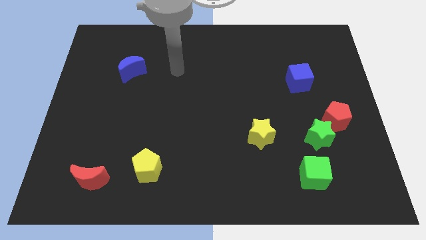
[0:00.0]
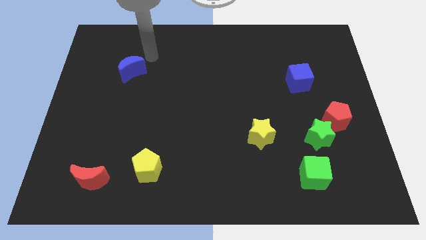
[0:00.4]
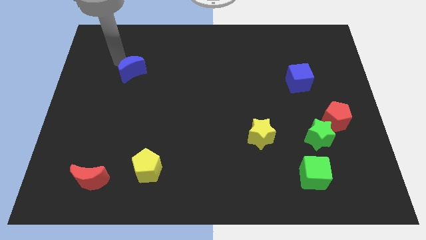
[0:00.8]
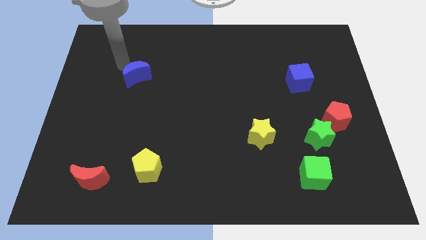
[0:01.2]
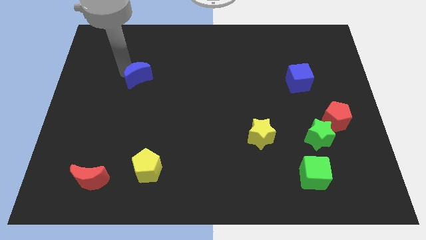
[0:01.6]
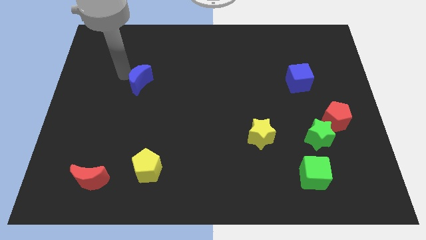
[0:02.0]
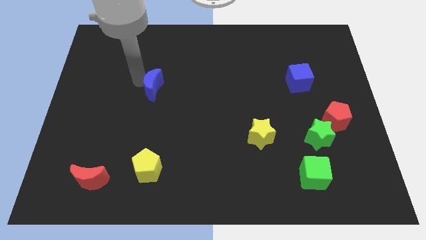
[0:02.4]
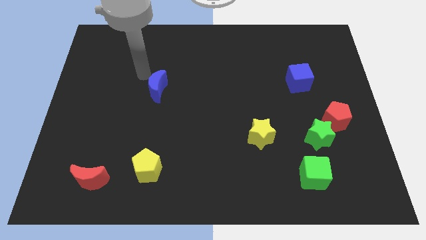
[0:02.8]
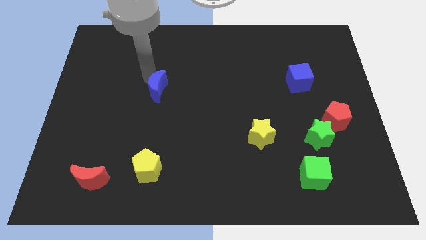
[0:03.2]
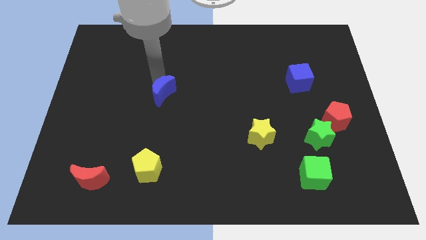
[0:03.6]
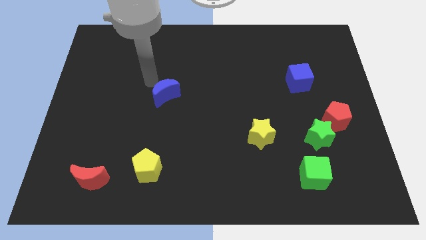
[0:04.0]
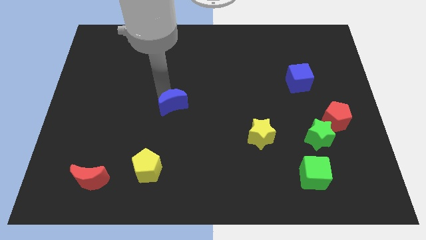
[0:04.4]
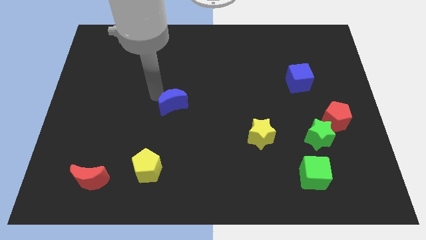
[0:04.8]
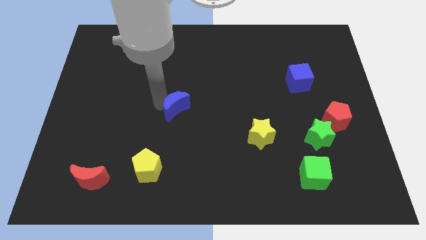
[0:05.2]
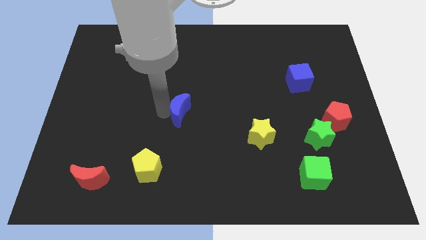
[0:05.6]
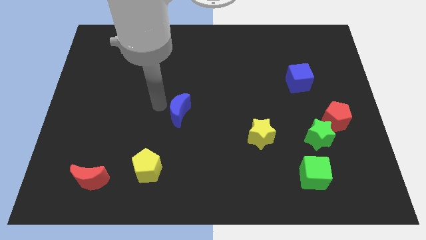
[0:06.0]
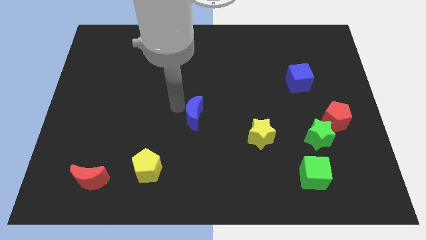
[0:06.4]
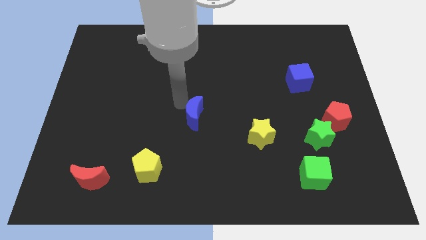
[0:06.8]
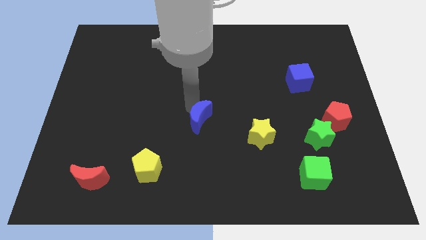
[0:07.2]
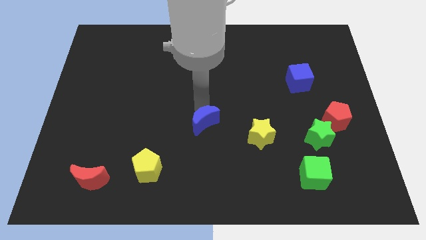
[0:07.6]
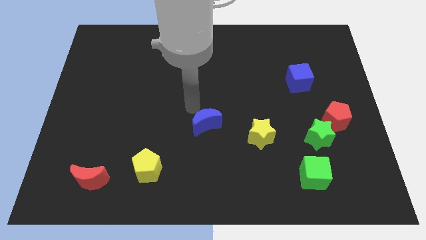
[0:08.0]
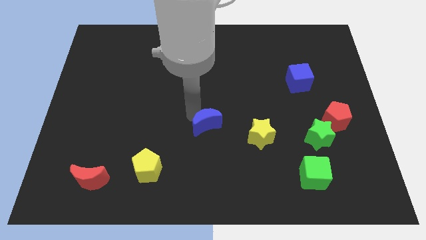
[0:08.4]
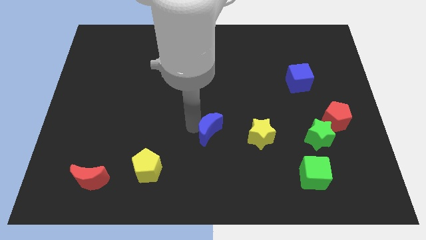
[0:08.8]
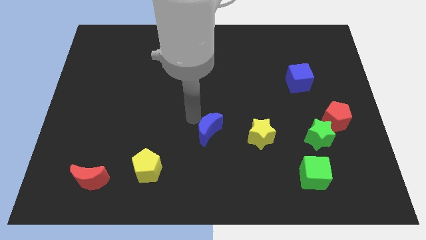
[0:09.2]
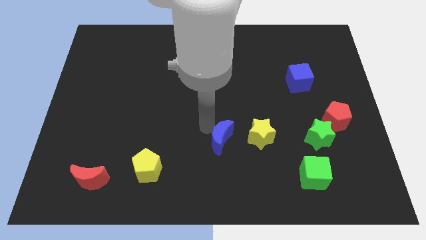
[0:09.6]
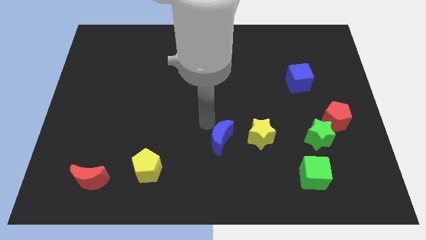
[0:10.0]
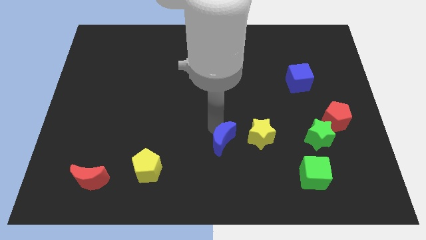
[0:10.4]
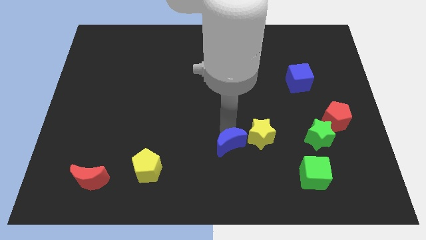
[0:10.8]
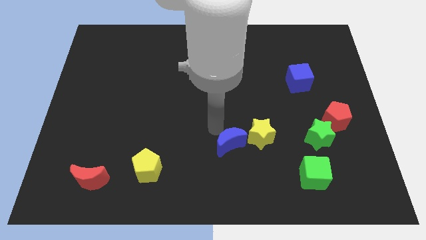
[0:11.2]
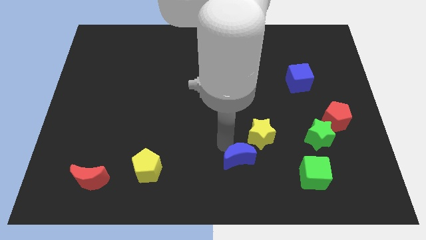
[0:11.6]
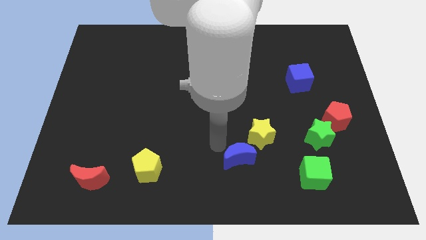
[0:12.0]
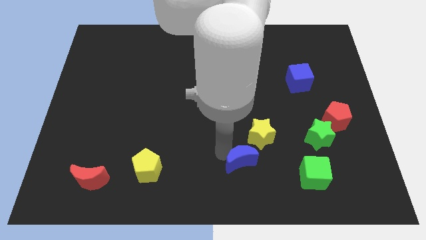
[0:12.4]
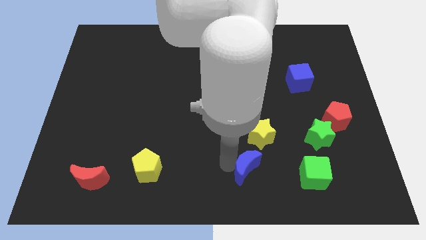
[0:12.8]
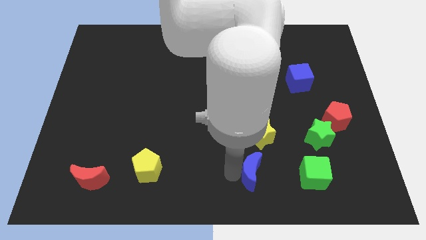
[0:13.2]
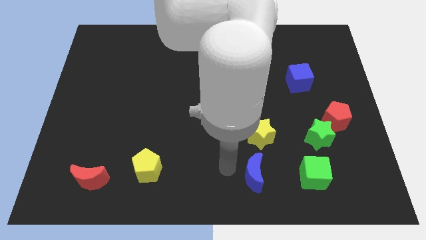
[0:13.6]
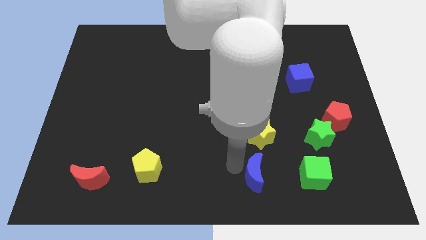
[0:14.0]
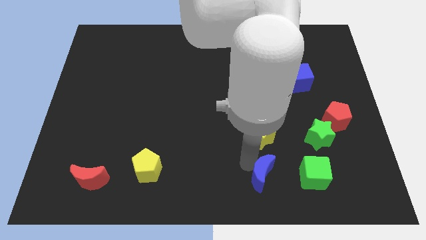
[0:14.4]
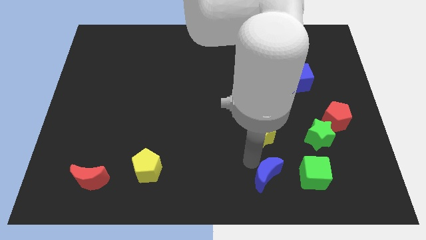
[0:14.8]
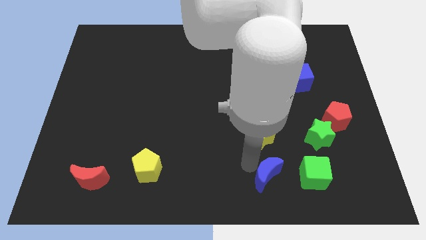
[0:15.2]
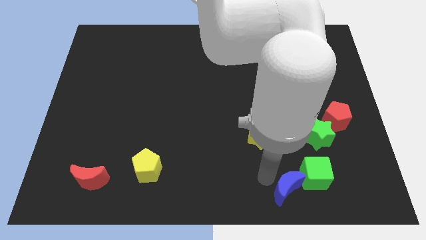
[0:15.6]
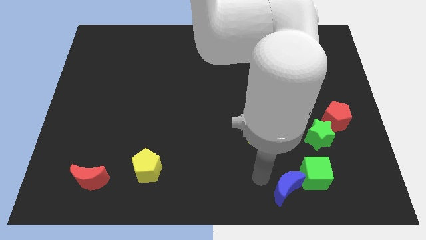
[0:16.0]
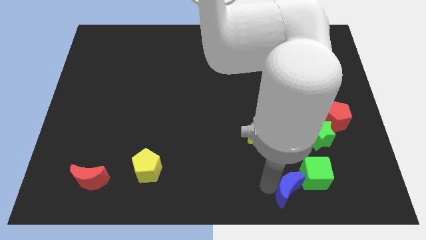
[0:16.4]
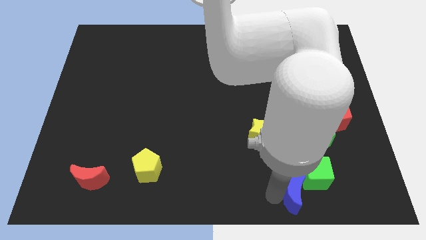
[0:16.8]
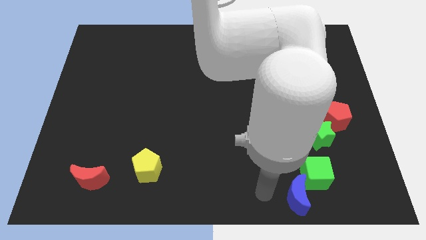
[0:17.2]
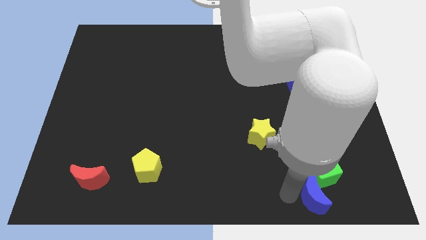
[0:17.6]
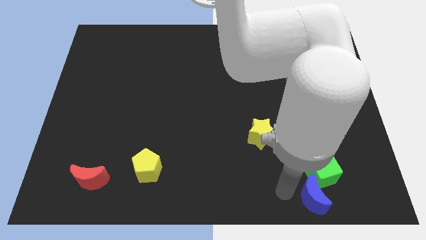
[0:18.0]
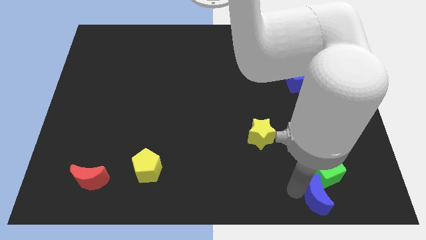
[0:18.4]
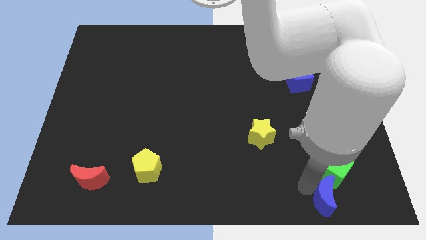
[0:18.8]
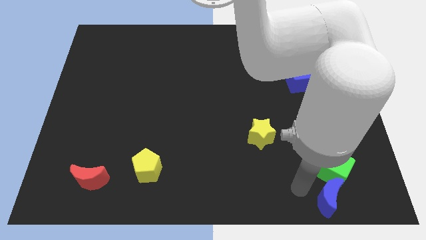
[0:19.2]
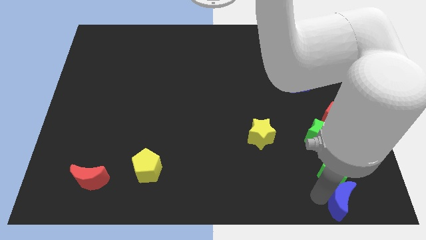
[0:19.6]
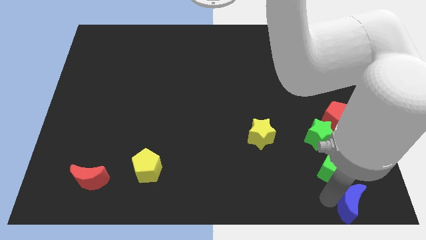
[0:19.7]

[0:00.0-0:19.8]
slide the blue moon to the bottom right corner

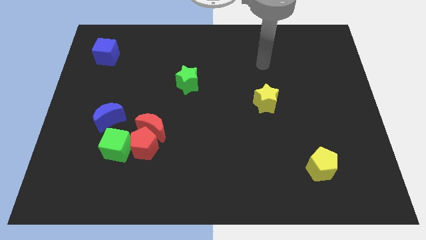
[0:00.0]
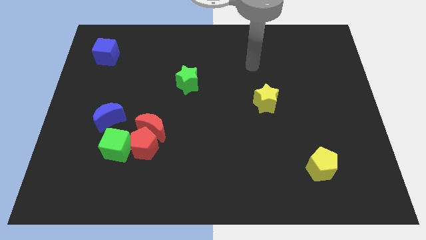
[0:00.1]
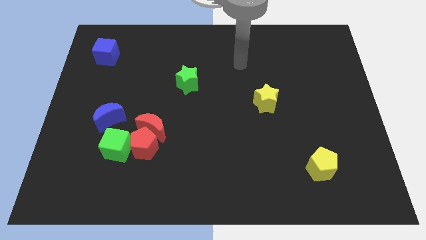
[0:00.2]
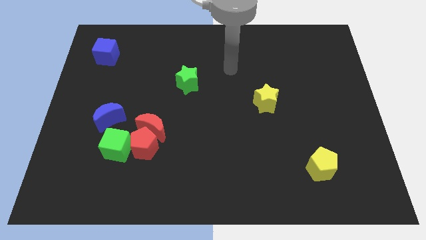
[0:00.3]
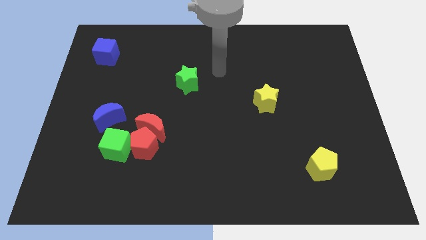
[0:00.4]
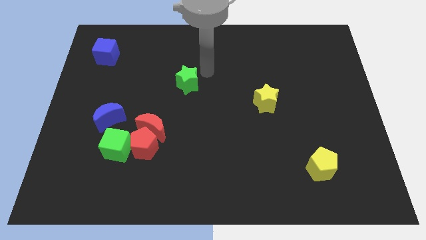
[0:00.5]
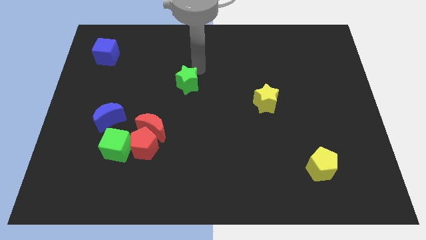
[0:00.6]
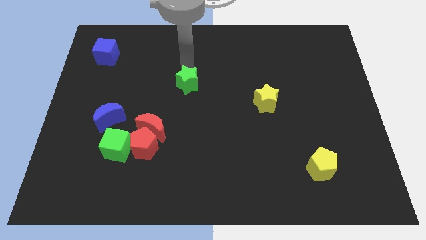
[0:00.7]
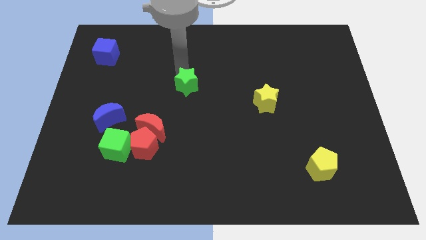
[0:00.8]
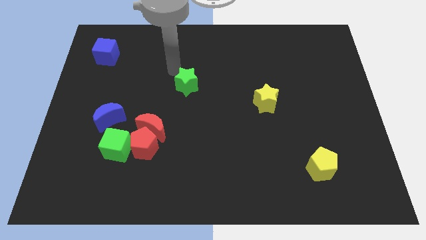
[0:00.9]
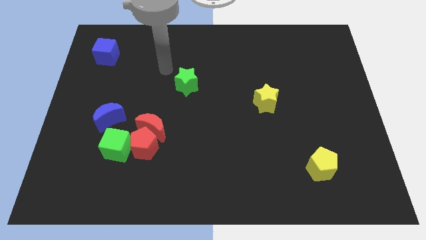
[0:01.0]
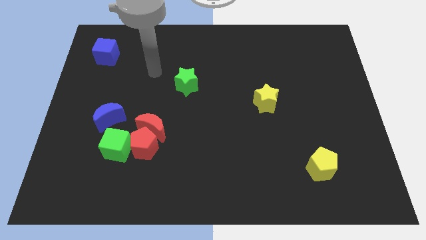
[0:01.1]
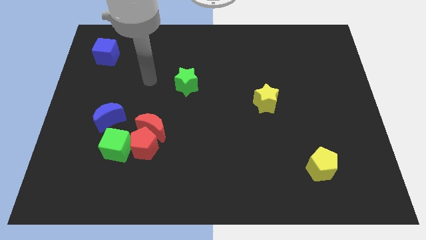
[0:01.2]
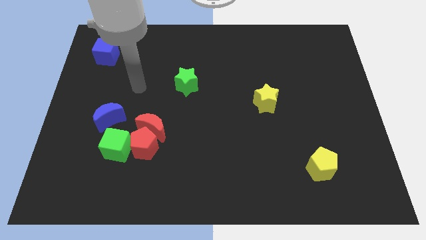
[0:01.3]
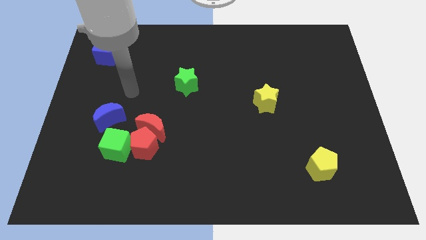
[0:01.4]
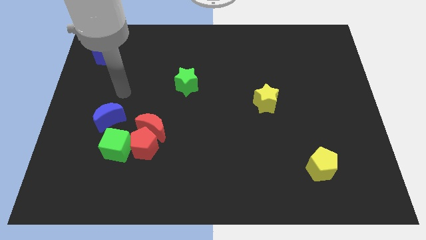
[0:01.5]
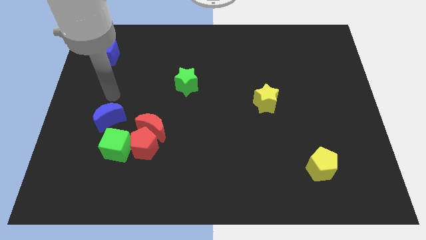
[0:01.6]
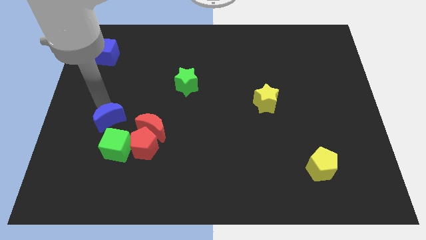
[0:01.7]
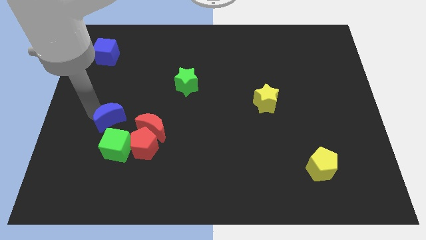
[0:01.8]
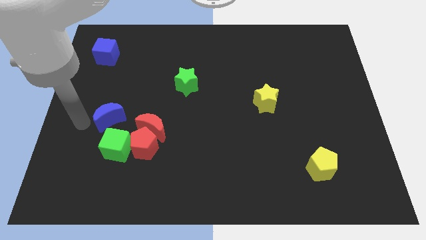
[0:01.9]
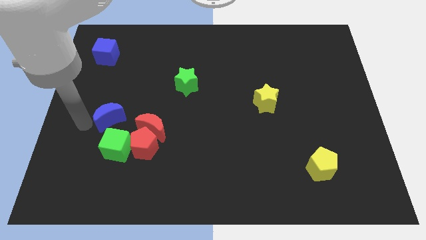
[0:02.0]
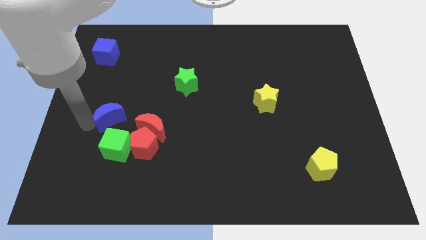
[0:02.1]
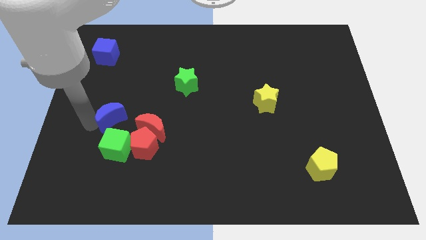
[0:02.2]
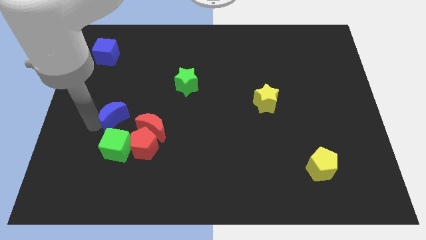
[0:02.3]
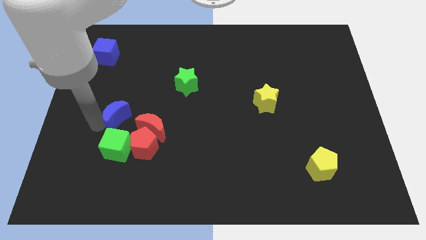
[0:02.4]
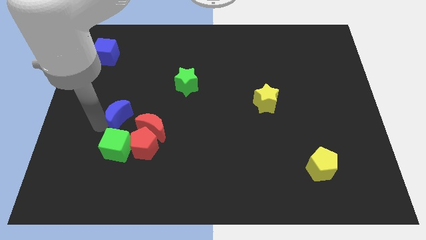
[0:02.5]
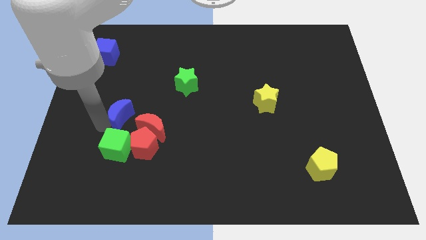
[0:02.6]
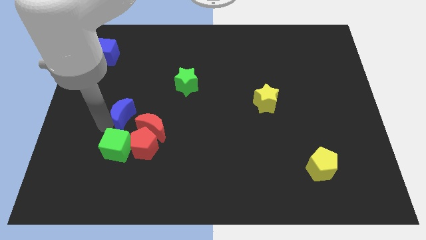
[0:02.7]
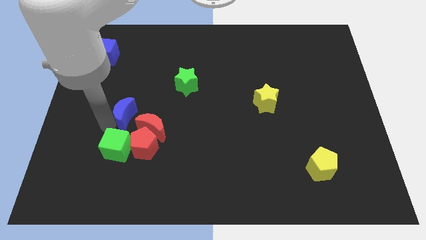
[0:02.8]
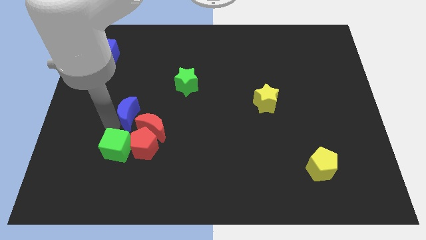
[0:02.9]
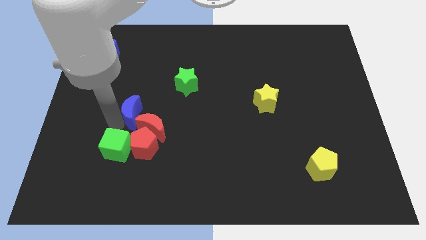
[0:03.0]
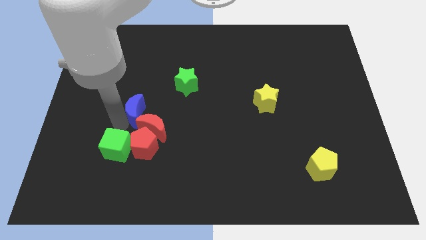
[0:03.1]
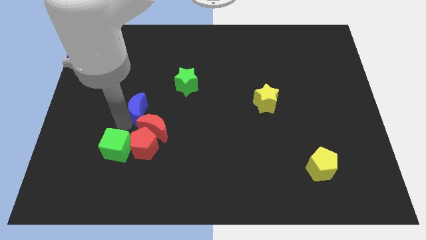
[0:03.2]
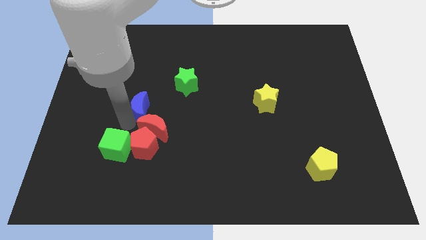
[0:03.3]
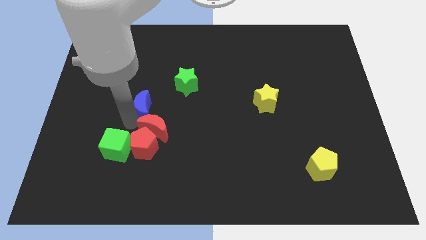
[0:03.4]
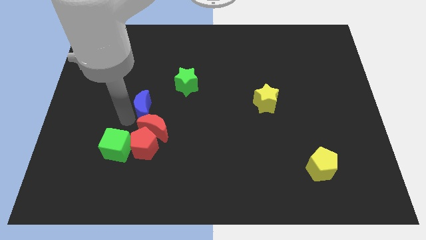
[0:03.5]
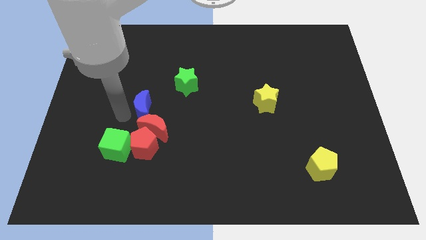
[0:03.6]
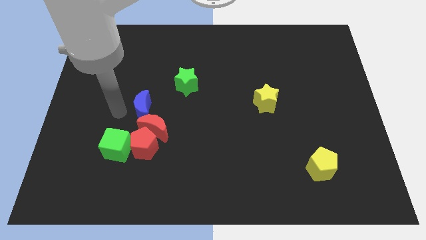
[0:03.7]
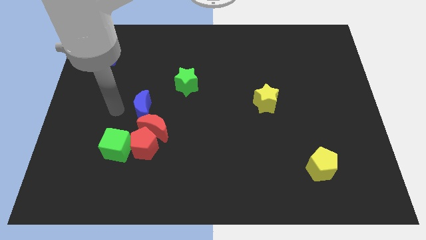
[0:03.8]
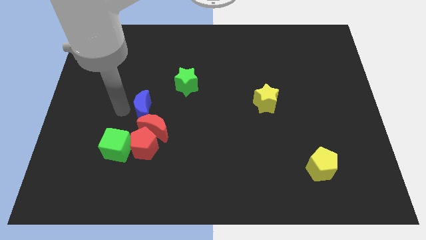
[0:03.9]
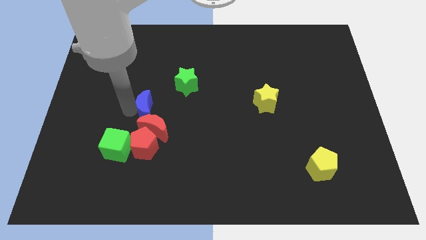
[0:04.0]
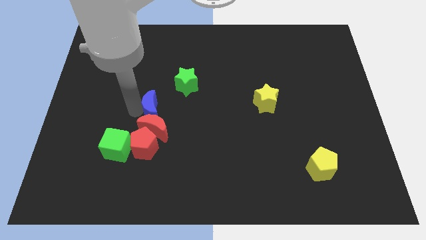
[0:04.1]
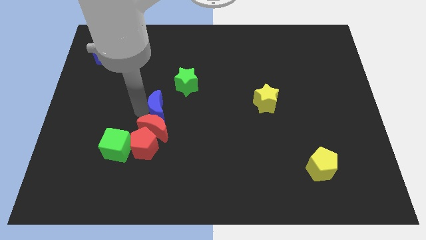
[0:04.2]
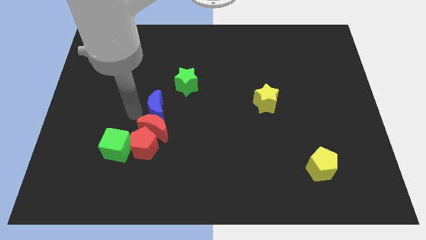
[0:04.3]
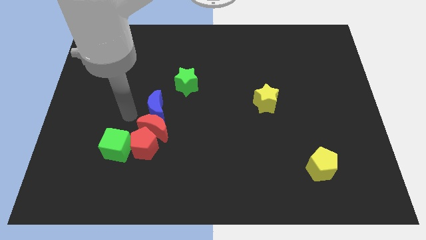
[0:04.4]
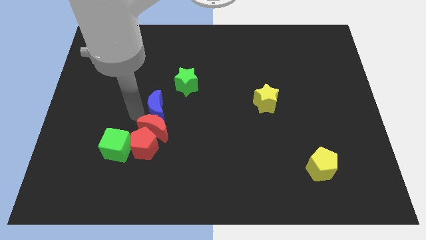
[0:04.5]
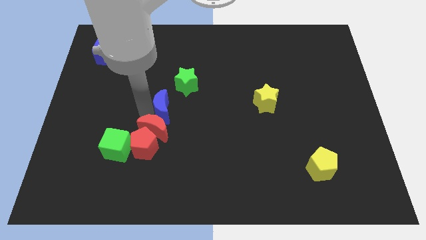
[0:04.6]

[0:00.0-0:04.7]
move the blue moon to the center
